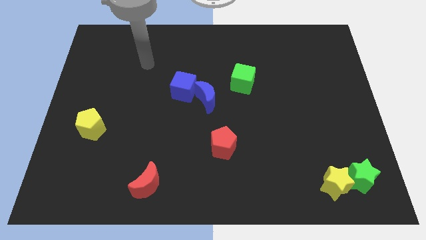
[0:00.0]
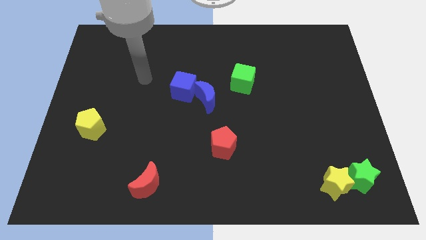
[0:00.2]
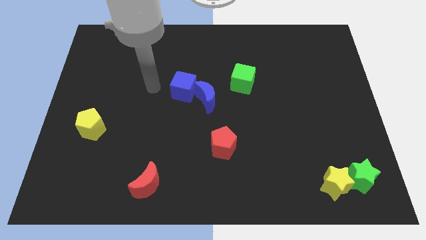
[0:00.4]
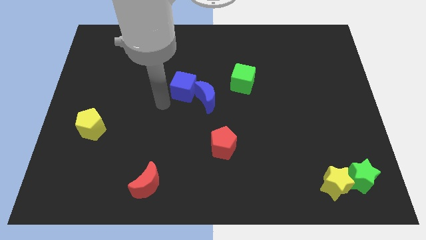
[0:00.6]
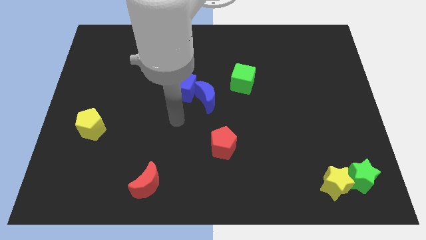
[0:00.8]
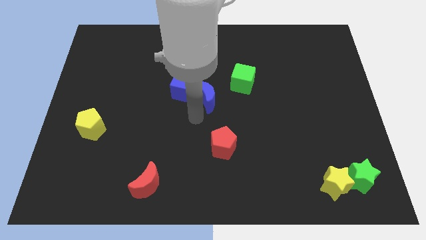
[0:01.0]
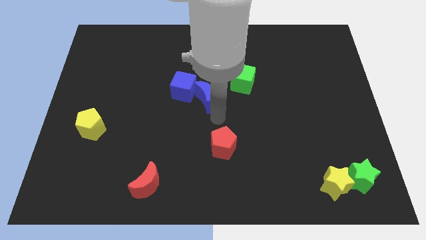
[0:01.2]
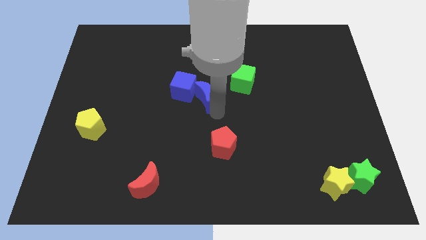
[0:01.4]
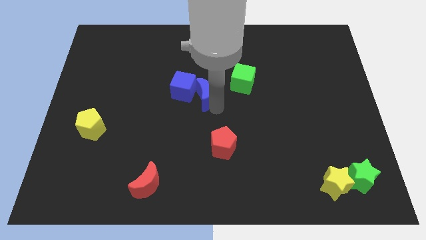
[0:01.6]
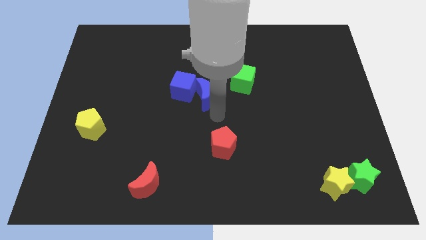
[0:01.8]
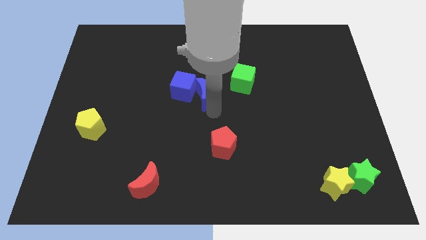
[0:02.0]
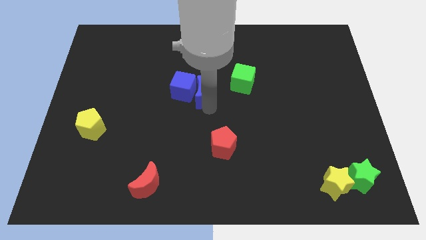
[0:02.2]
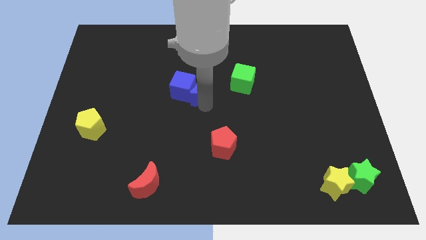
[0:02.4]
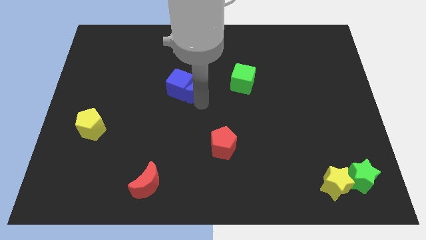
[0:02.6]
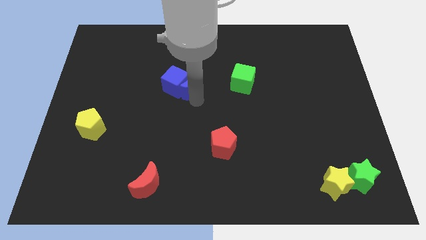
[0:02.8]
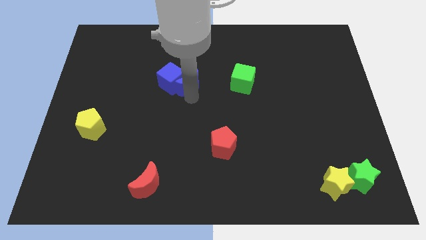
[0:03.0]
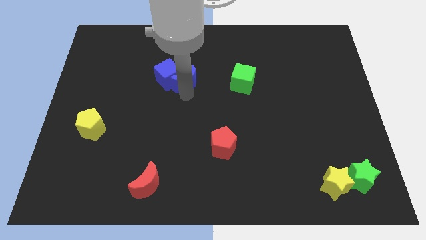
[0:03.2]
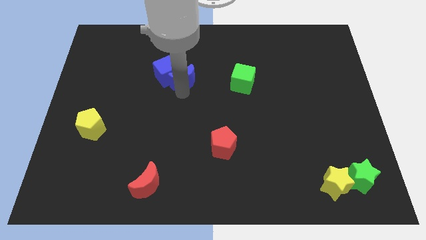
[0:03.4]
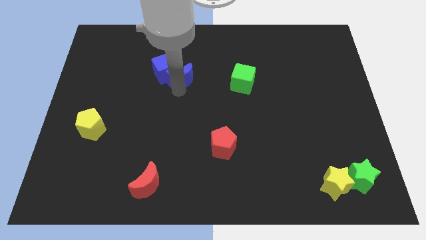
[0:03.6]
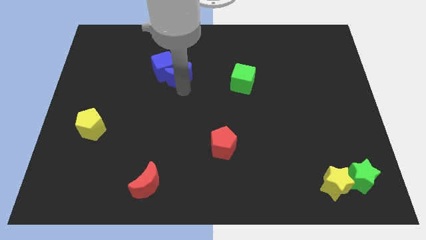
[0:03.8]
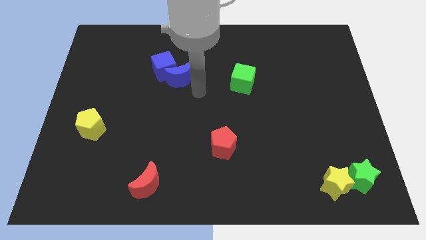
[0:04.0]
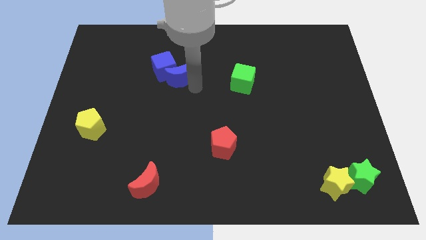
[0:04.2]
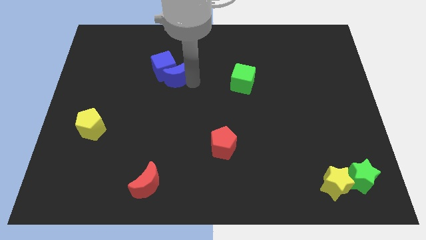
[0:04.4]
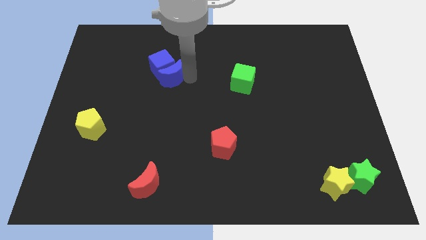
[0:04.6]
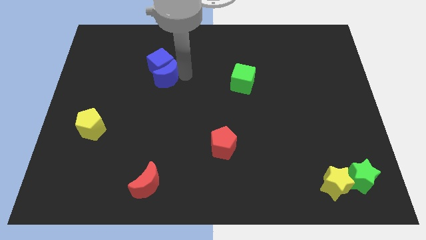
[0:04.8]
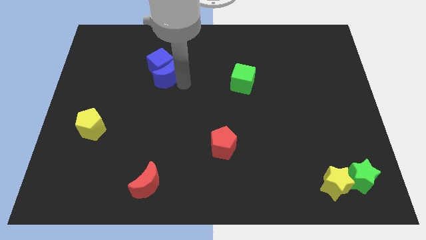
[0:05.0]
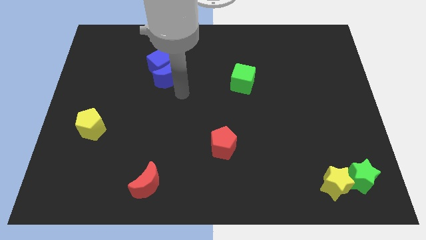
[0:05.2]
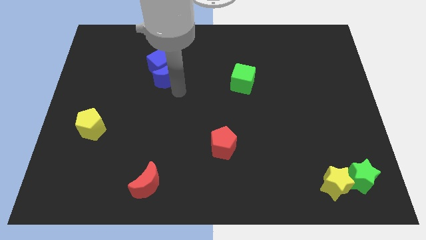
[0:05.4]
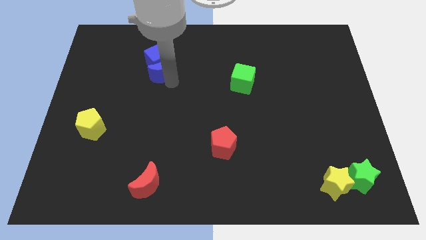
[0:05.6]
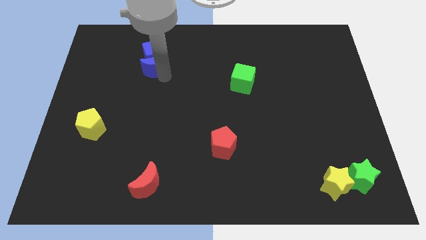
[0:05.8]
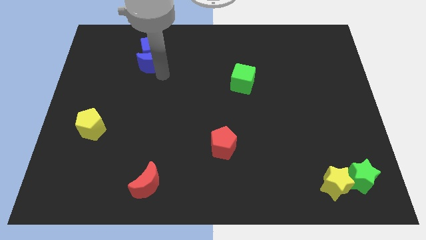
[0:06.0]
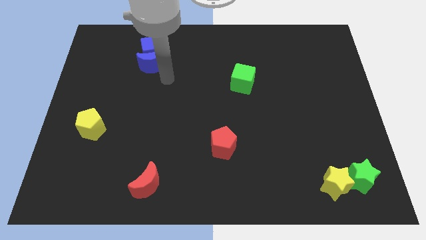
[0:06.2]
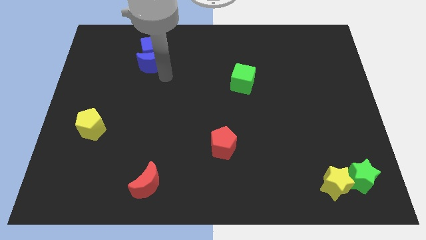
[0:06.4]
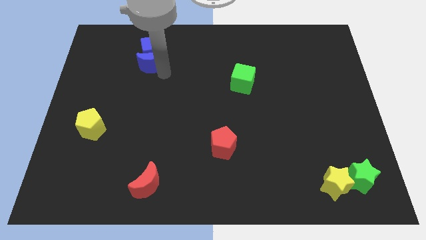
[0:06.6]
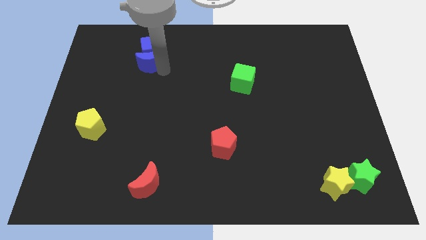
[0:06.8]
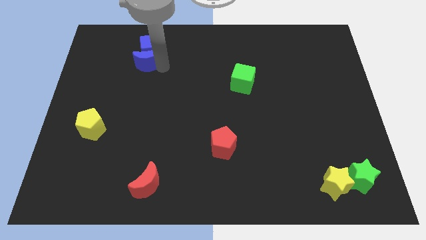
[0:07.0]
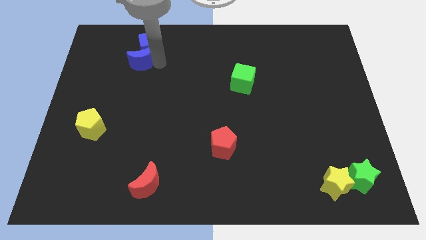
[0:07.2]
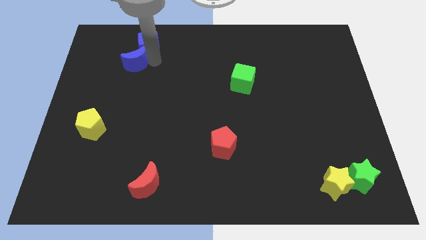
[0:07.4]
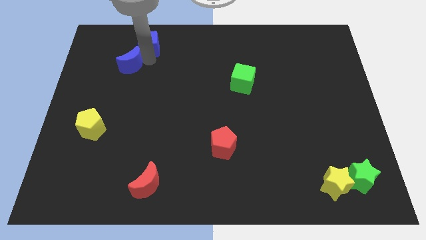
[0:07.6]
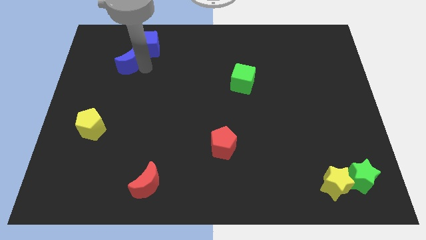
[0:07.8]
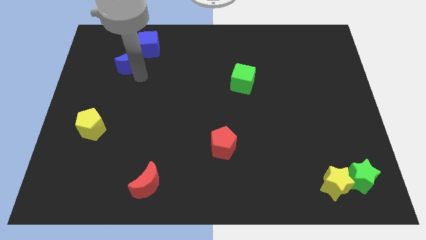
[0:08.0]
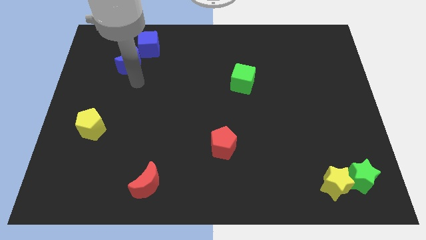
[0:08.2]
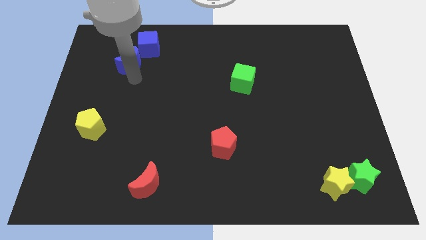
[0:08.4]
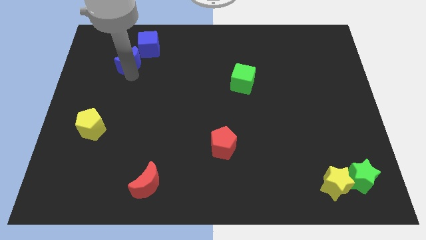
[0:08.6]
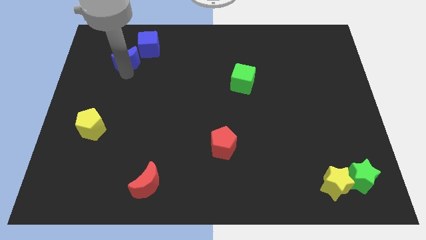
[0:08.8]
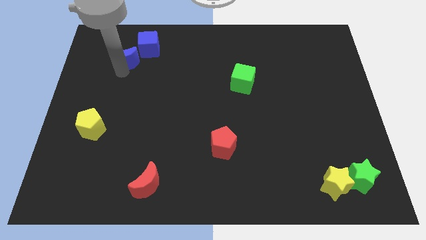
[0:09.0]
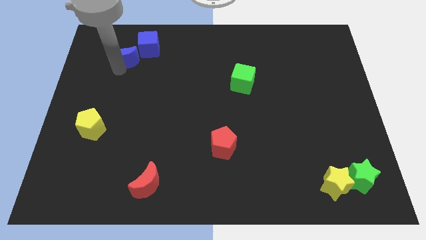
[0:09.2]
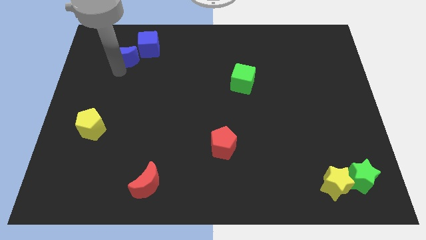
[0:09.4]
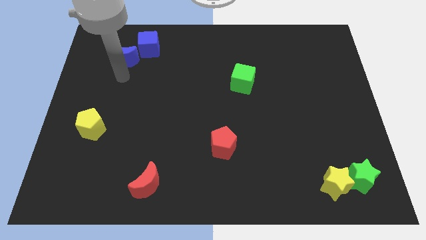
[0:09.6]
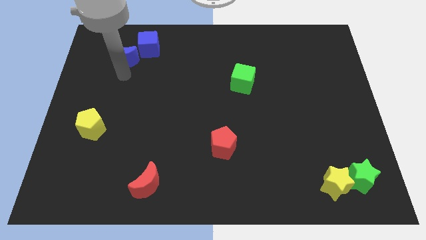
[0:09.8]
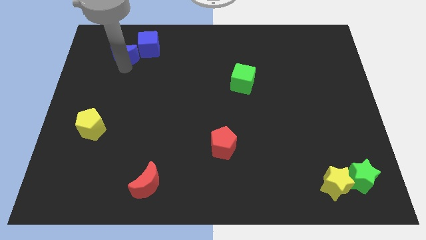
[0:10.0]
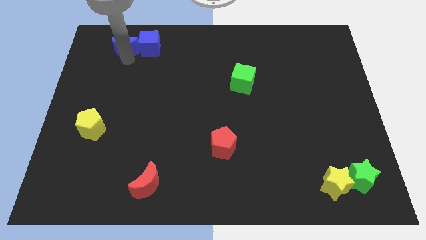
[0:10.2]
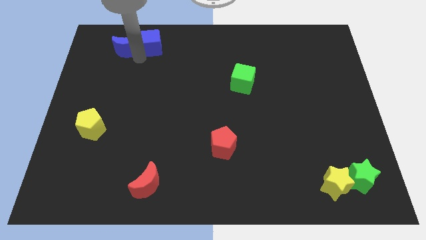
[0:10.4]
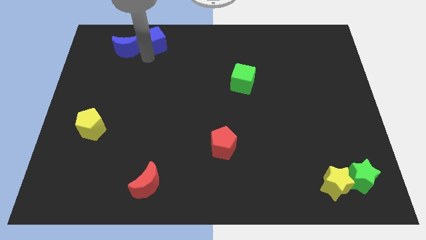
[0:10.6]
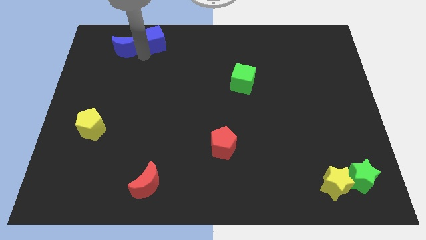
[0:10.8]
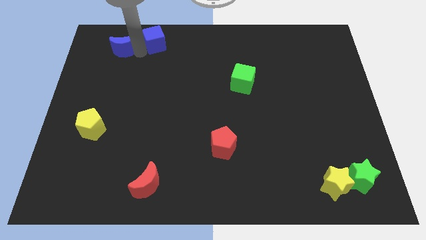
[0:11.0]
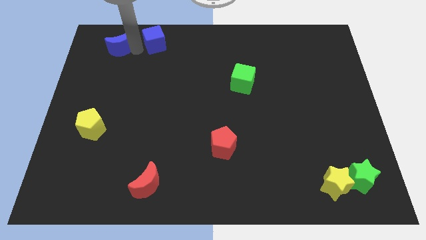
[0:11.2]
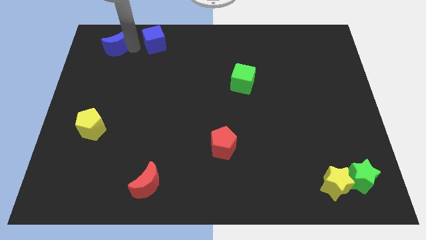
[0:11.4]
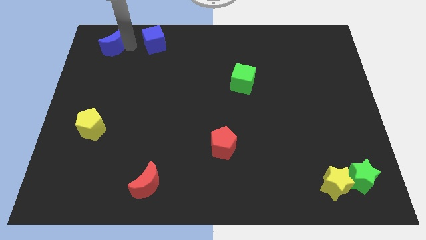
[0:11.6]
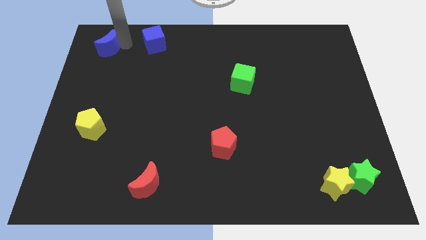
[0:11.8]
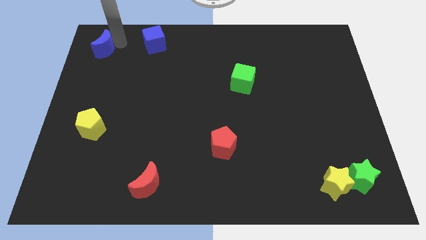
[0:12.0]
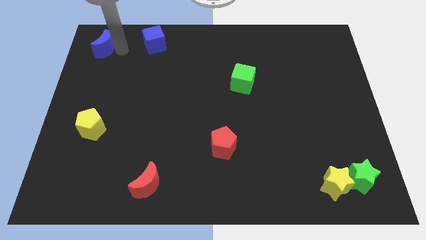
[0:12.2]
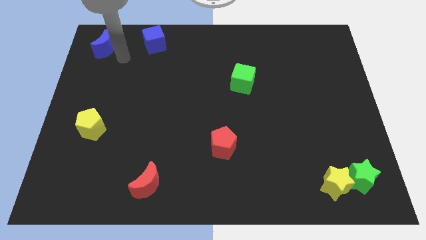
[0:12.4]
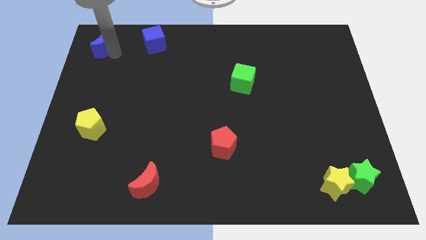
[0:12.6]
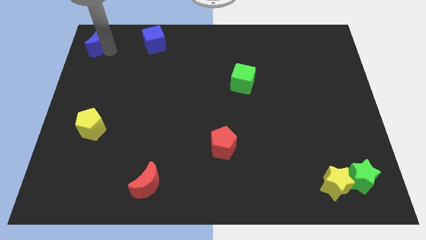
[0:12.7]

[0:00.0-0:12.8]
push the blue moon to the top left of the board
